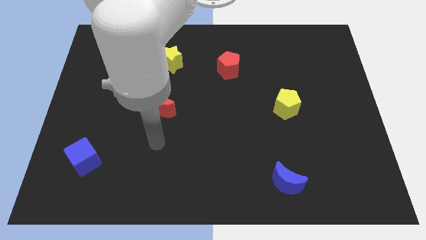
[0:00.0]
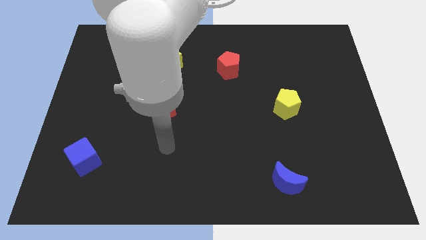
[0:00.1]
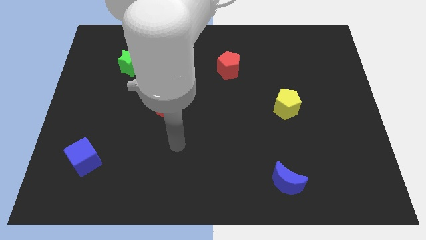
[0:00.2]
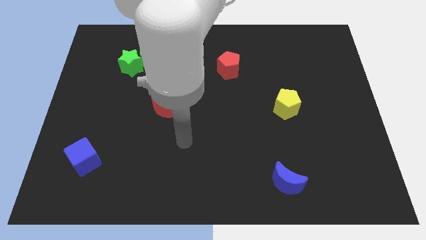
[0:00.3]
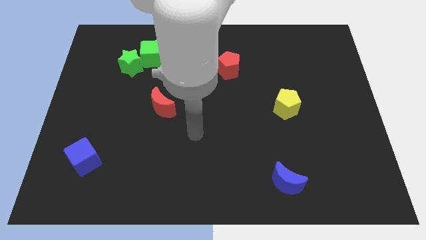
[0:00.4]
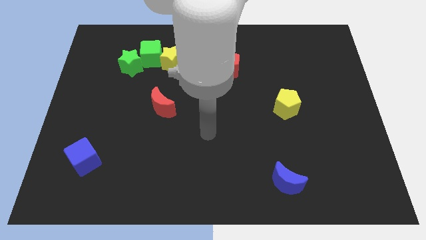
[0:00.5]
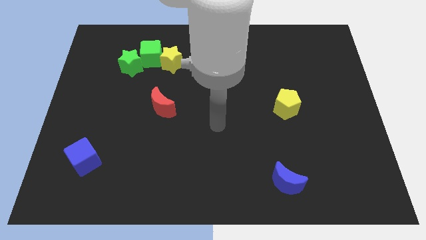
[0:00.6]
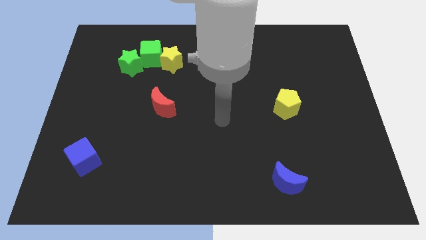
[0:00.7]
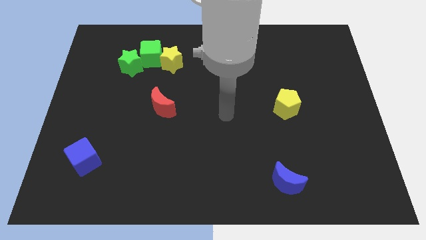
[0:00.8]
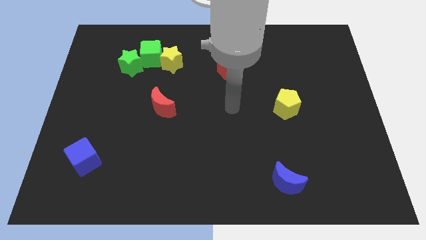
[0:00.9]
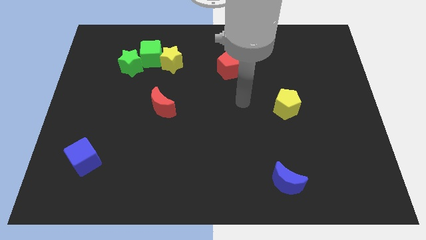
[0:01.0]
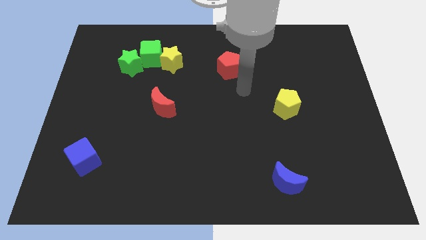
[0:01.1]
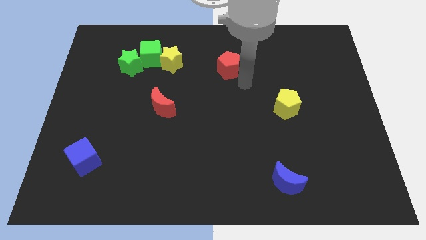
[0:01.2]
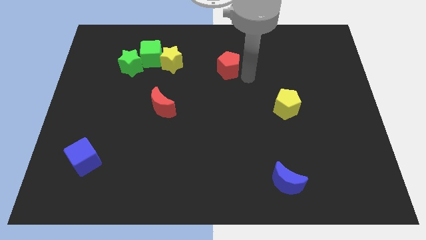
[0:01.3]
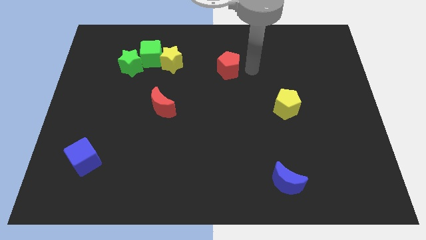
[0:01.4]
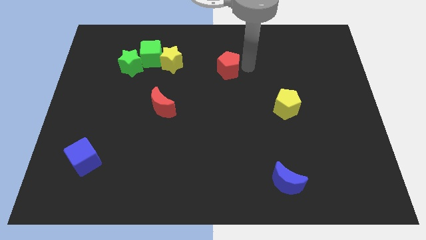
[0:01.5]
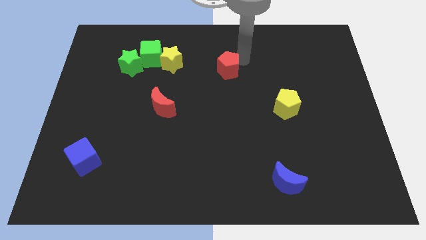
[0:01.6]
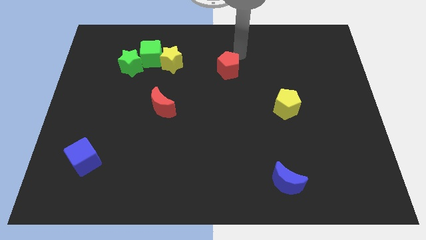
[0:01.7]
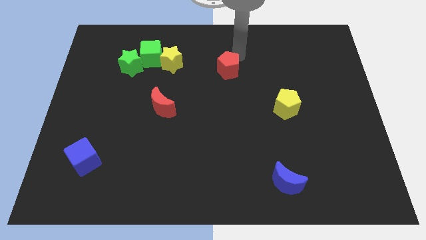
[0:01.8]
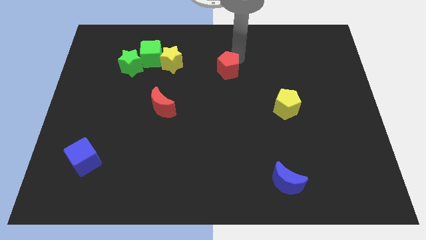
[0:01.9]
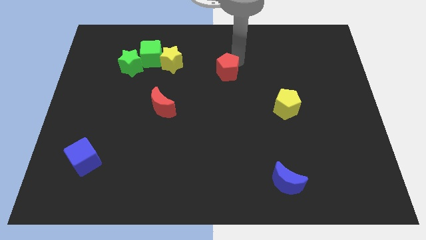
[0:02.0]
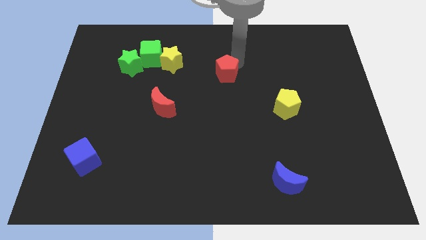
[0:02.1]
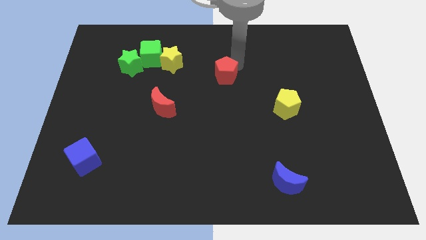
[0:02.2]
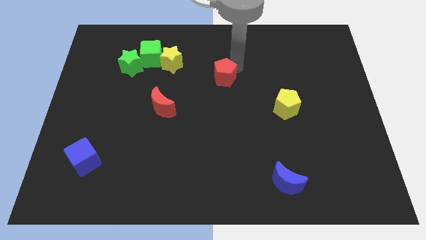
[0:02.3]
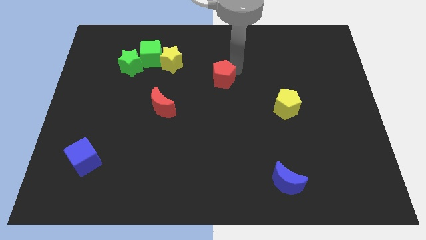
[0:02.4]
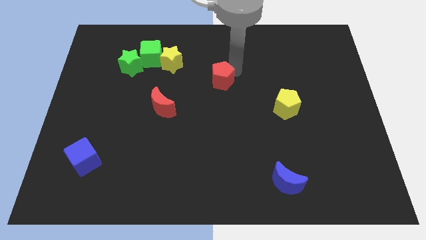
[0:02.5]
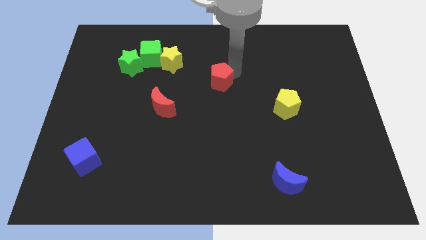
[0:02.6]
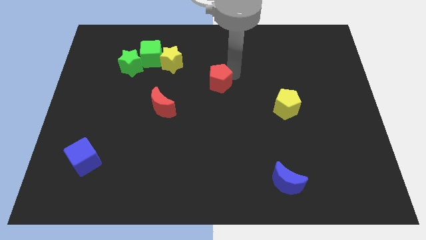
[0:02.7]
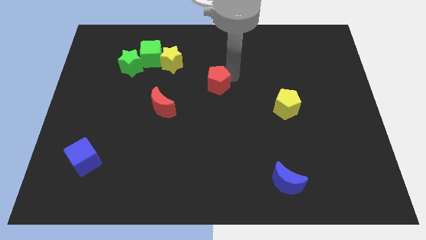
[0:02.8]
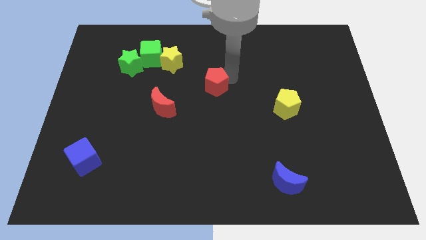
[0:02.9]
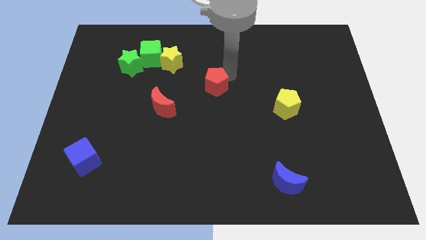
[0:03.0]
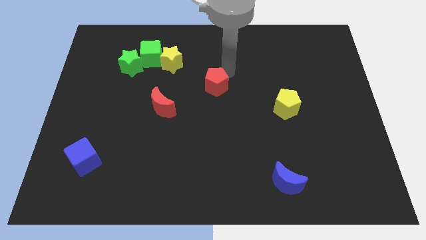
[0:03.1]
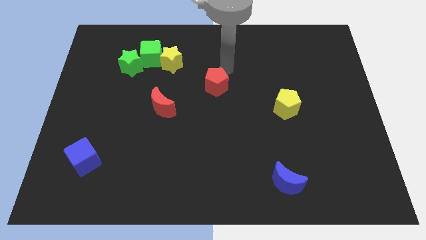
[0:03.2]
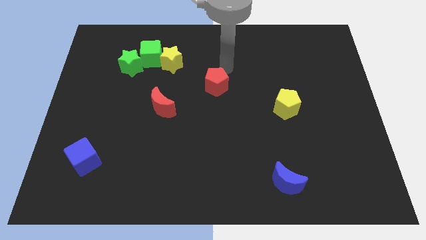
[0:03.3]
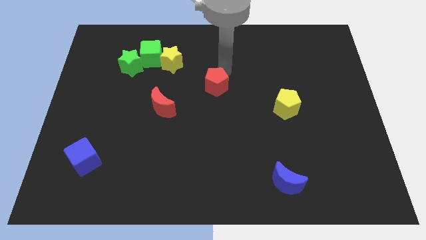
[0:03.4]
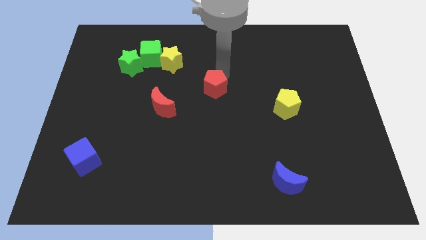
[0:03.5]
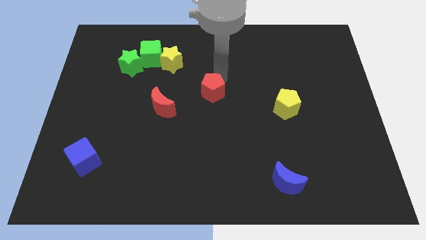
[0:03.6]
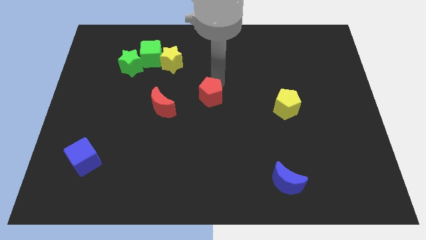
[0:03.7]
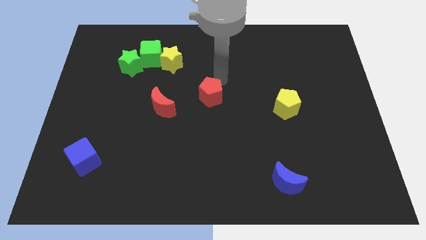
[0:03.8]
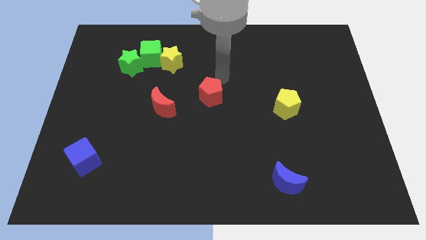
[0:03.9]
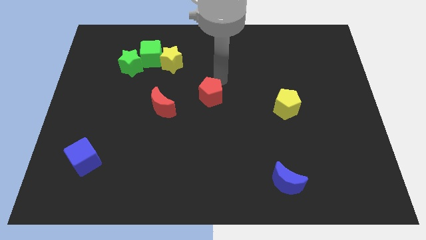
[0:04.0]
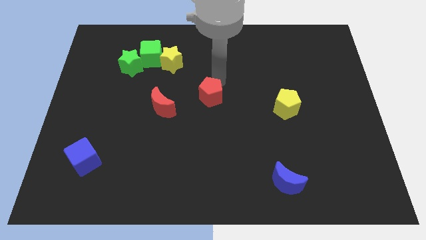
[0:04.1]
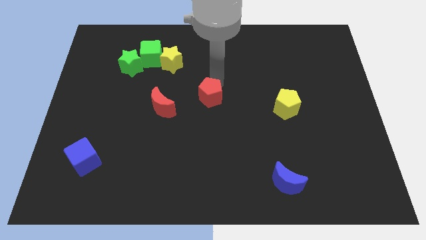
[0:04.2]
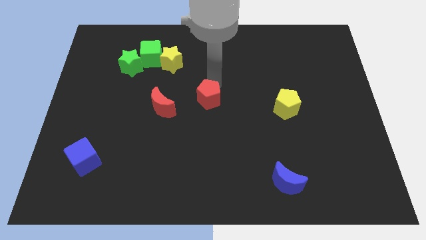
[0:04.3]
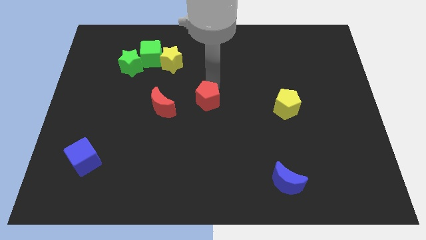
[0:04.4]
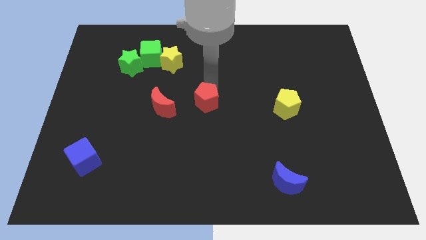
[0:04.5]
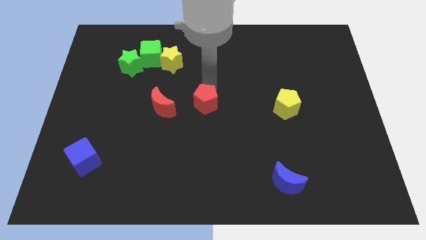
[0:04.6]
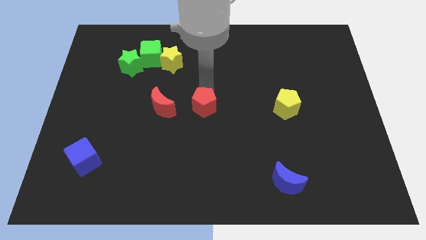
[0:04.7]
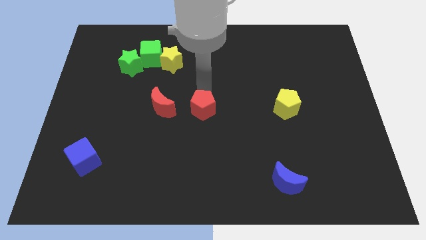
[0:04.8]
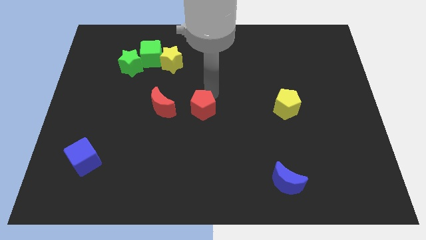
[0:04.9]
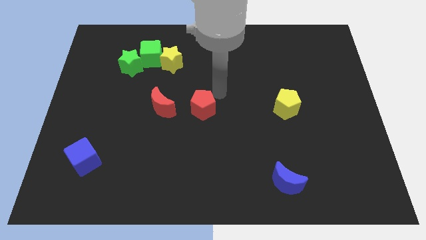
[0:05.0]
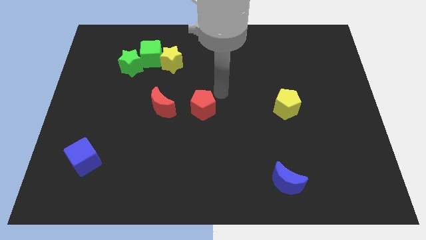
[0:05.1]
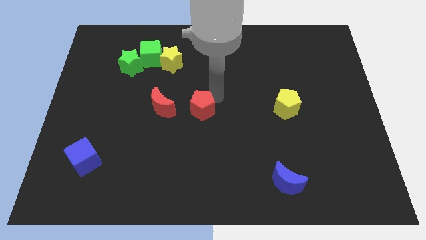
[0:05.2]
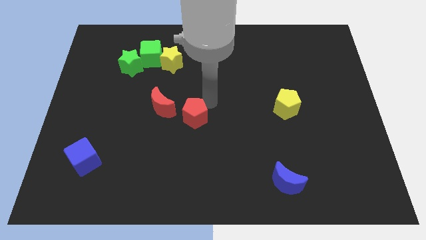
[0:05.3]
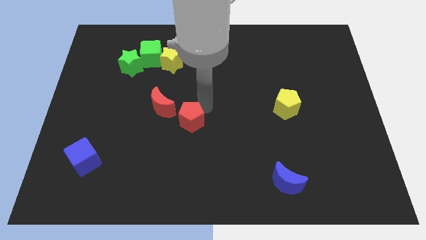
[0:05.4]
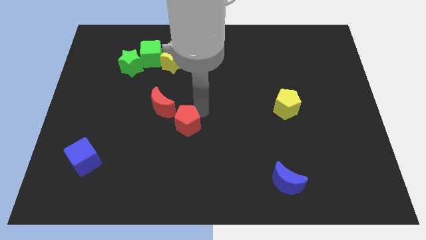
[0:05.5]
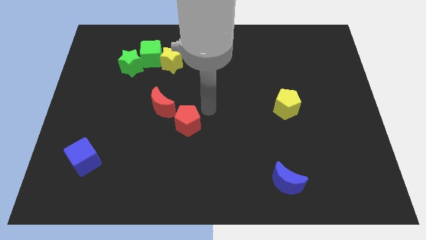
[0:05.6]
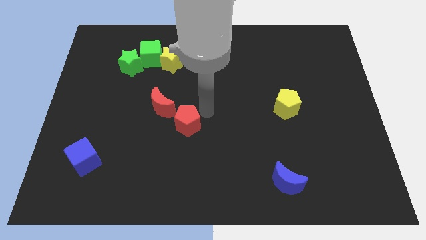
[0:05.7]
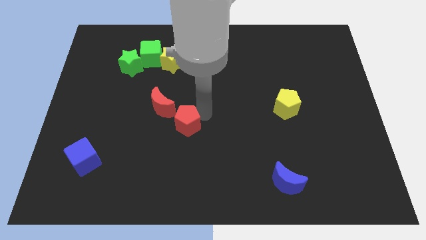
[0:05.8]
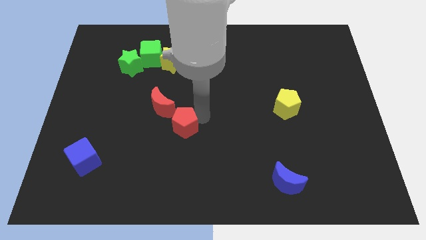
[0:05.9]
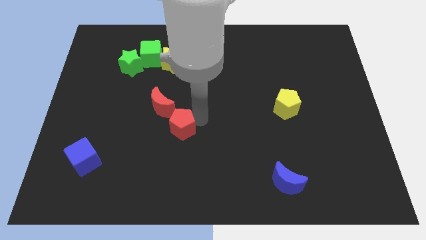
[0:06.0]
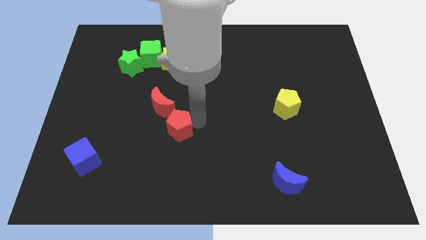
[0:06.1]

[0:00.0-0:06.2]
put the red pentagon below the red moon

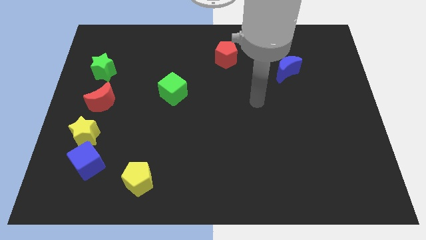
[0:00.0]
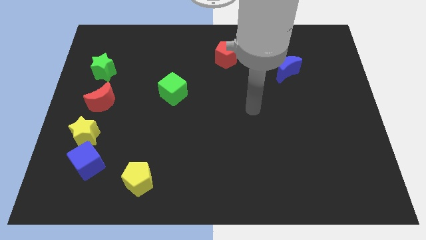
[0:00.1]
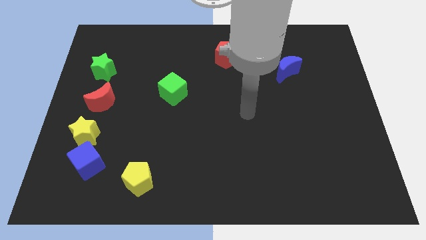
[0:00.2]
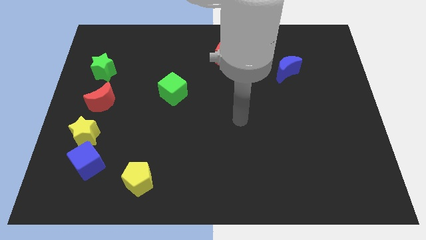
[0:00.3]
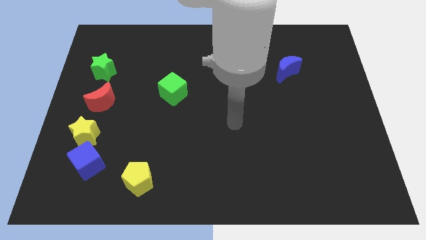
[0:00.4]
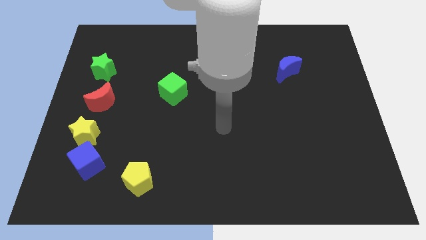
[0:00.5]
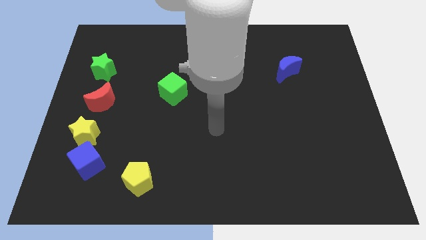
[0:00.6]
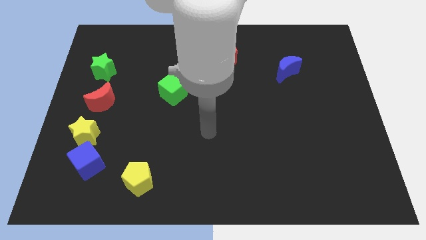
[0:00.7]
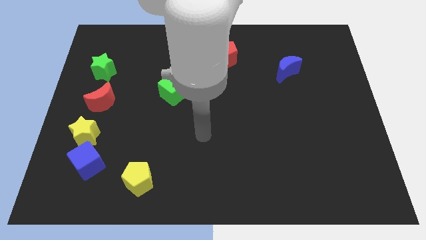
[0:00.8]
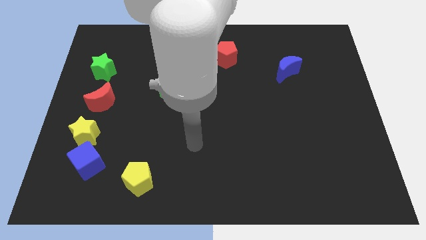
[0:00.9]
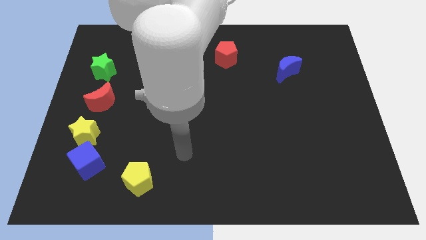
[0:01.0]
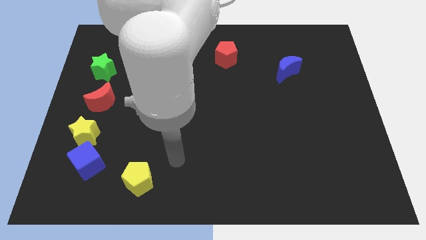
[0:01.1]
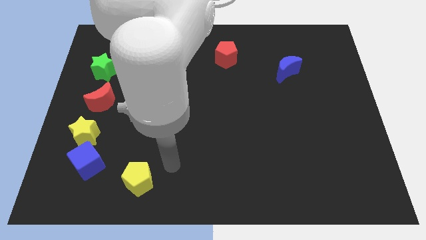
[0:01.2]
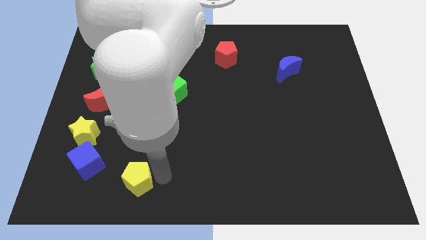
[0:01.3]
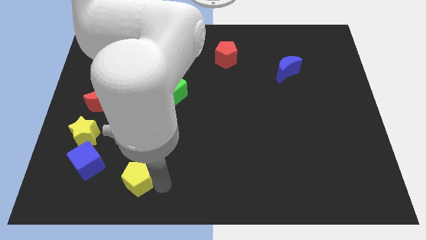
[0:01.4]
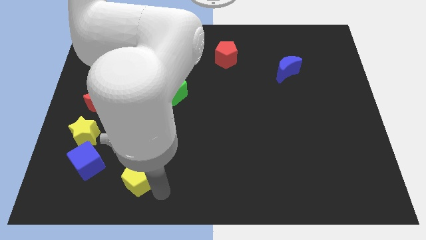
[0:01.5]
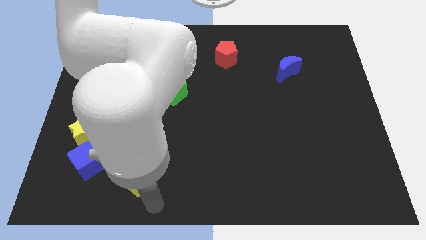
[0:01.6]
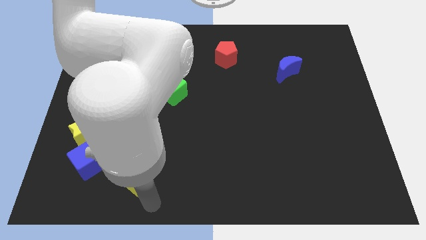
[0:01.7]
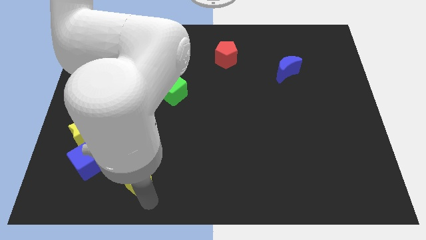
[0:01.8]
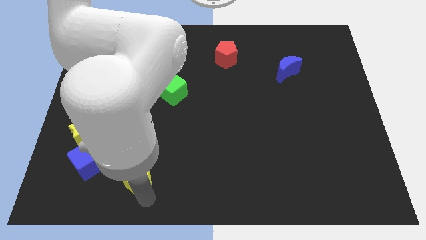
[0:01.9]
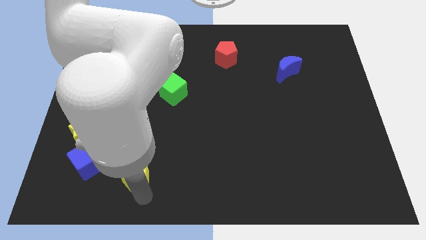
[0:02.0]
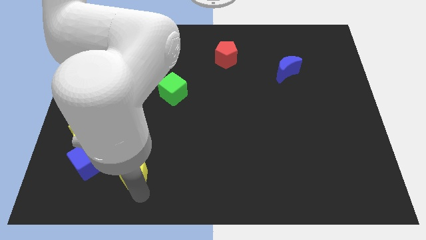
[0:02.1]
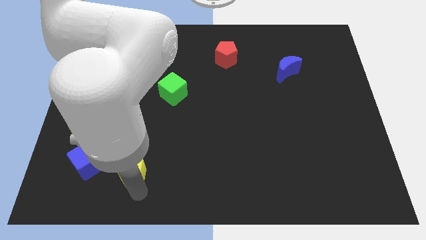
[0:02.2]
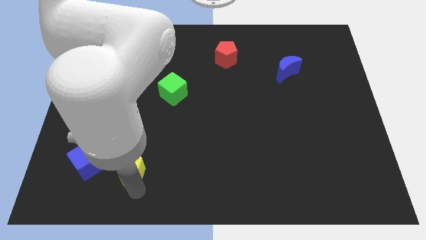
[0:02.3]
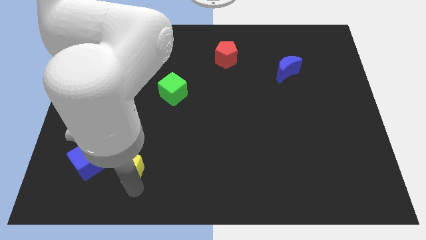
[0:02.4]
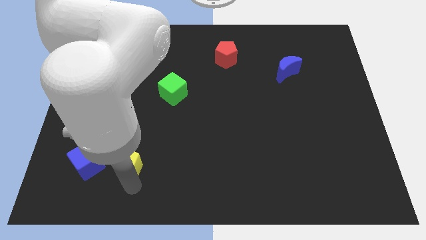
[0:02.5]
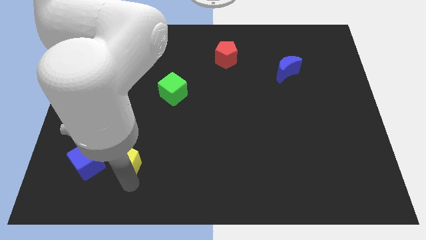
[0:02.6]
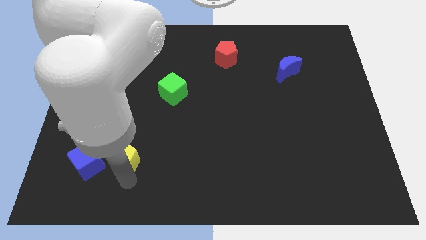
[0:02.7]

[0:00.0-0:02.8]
move the yellow pentagon to the top right of the blue cube
